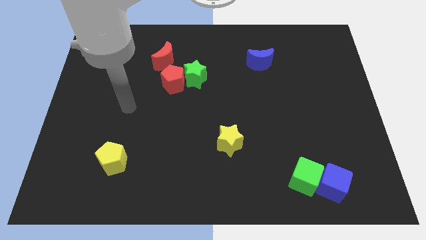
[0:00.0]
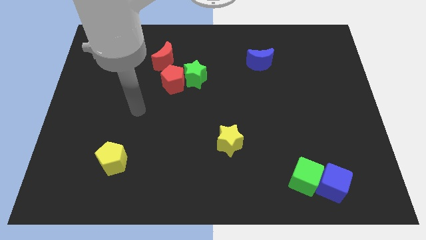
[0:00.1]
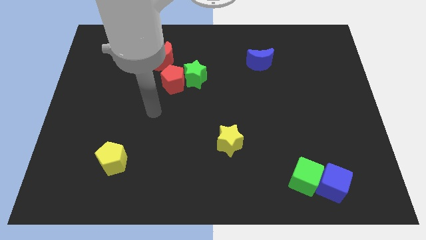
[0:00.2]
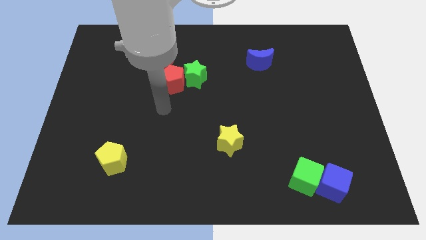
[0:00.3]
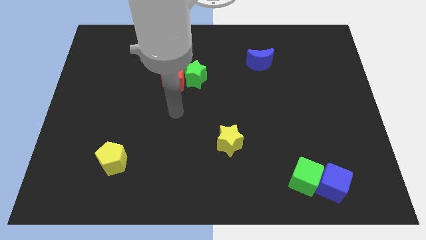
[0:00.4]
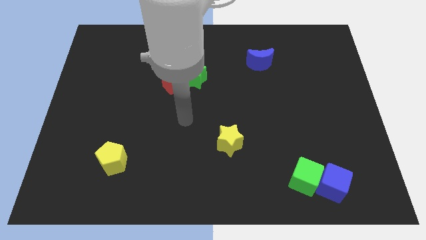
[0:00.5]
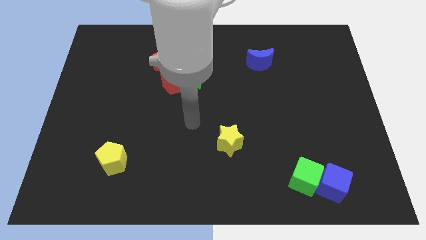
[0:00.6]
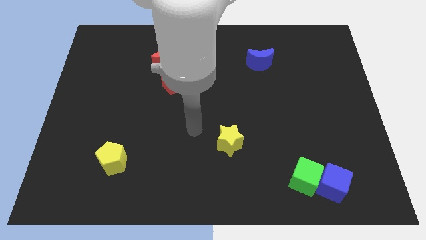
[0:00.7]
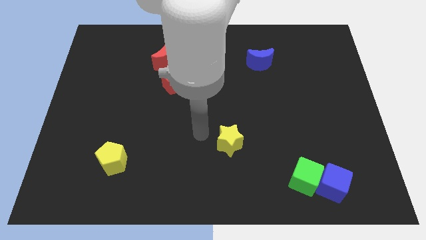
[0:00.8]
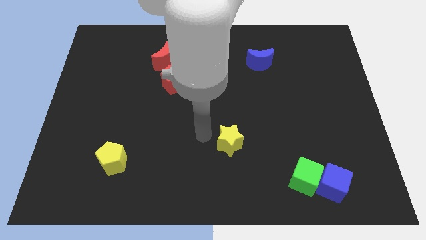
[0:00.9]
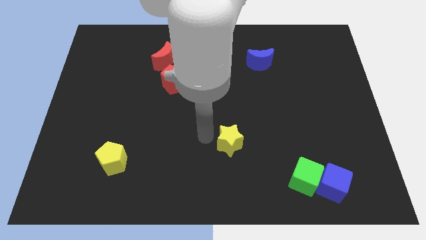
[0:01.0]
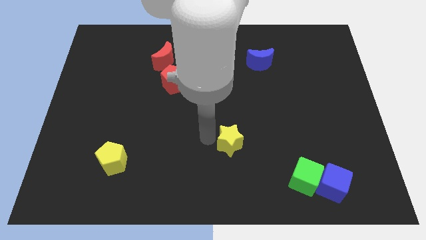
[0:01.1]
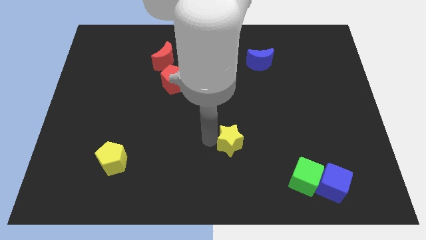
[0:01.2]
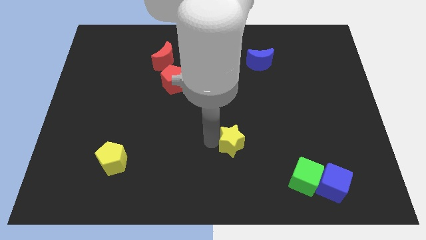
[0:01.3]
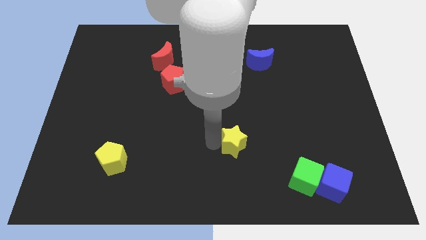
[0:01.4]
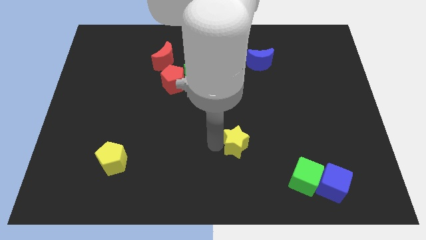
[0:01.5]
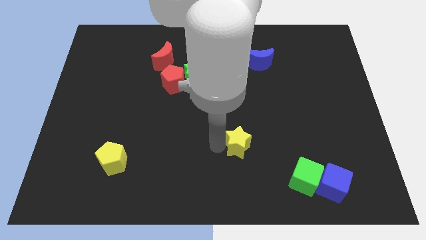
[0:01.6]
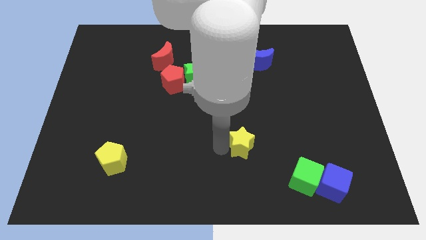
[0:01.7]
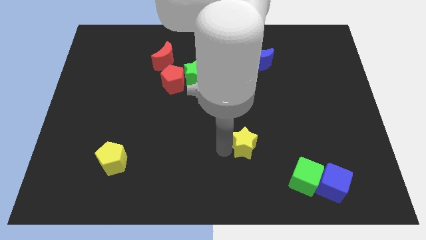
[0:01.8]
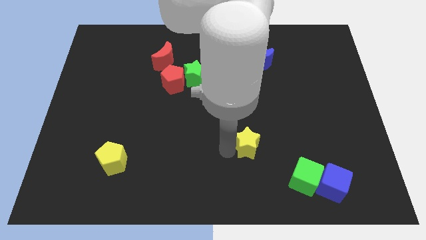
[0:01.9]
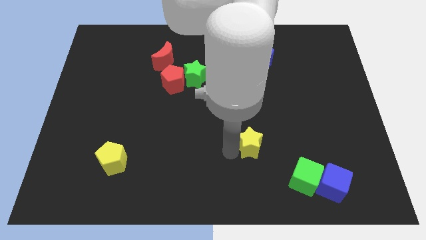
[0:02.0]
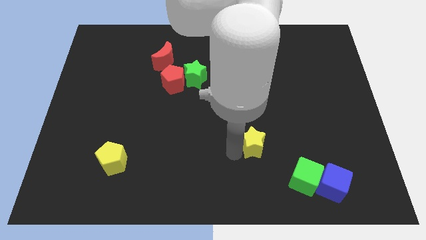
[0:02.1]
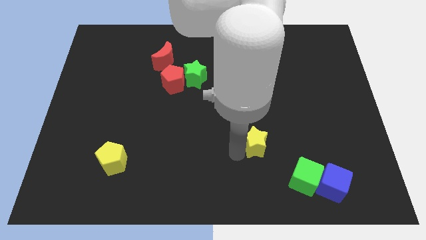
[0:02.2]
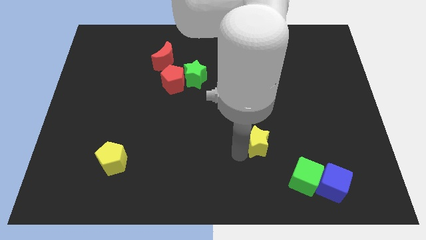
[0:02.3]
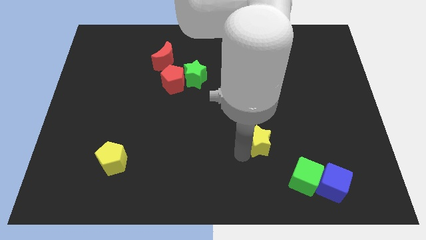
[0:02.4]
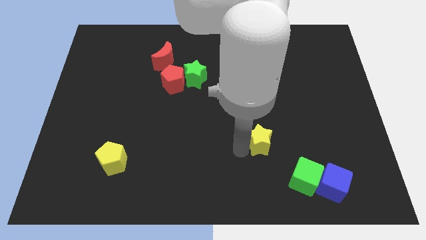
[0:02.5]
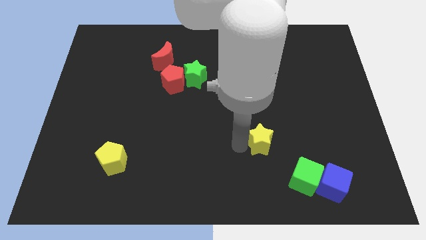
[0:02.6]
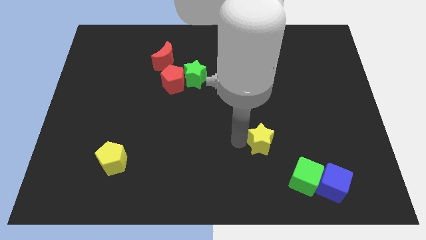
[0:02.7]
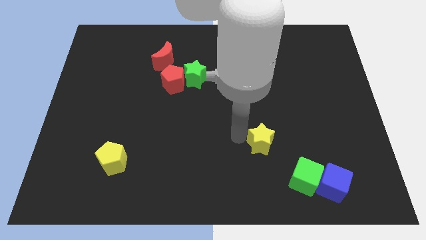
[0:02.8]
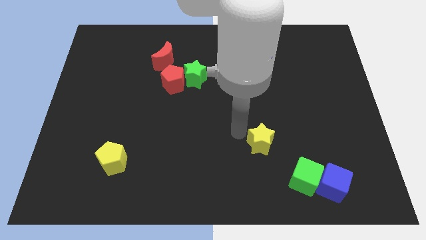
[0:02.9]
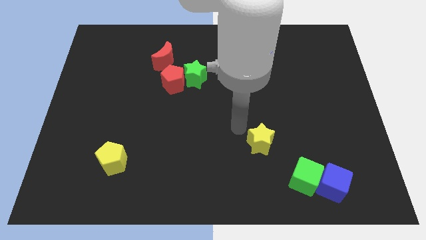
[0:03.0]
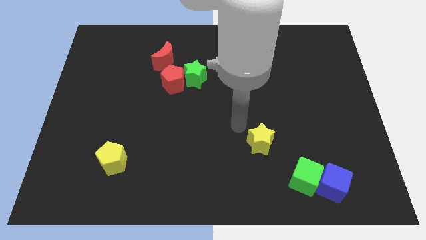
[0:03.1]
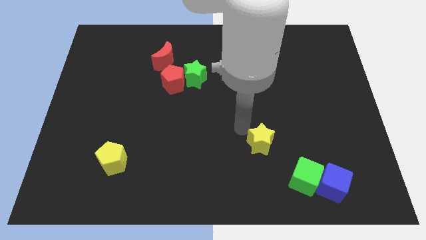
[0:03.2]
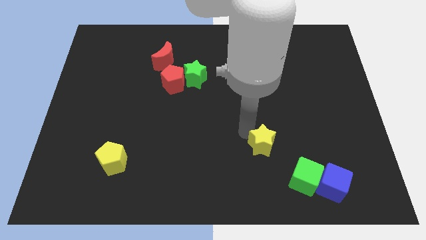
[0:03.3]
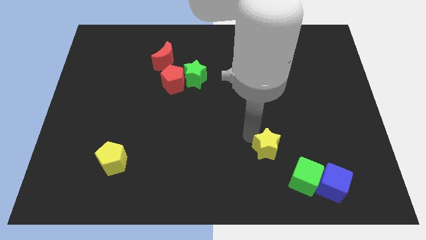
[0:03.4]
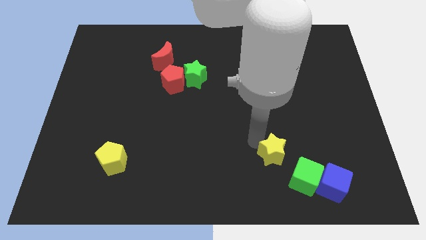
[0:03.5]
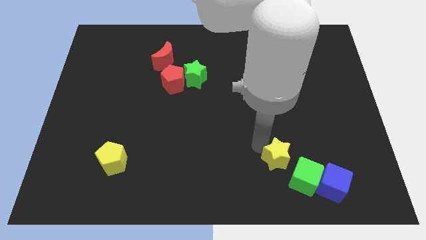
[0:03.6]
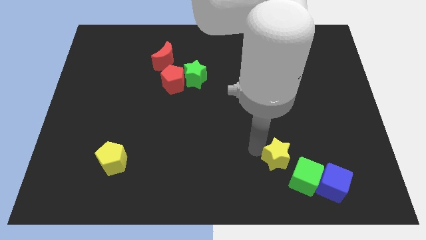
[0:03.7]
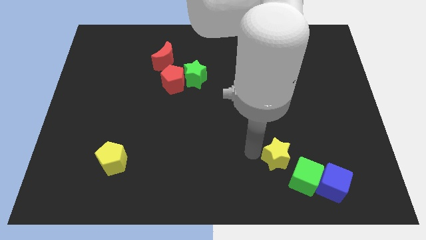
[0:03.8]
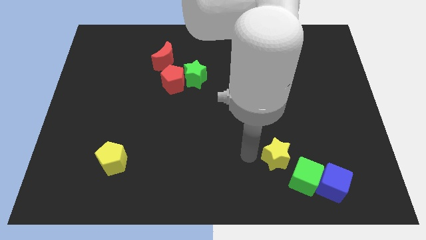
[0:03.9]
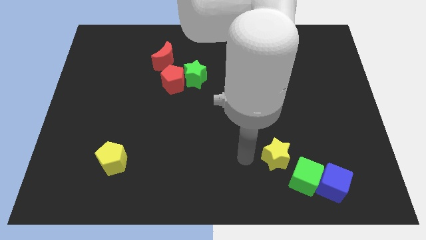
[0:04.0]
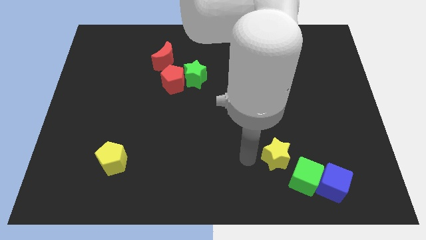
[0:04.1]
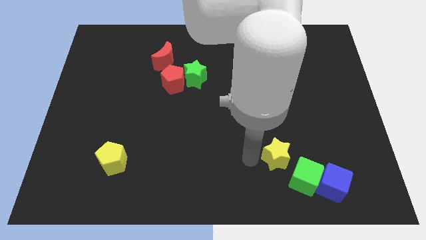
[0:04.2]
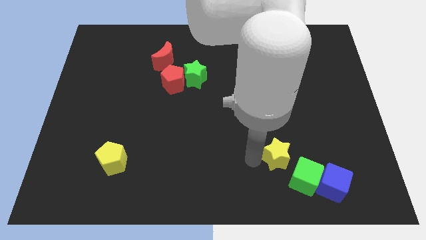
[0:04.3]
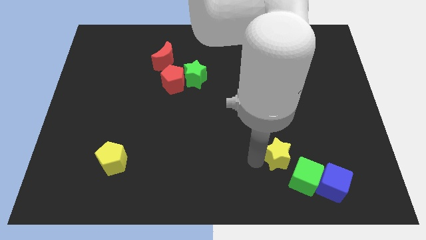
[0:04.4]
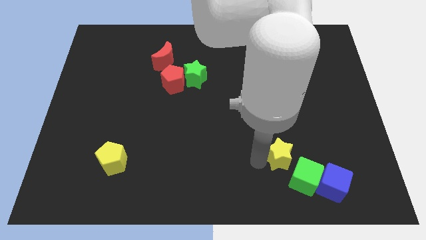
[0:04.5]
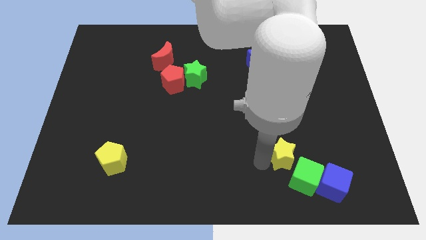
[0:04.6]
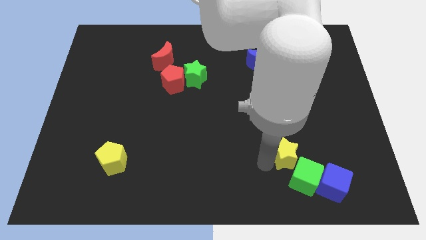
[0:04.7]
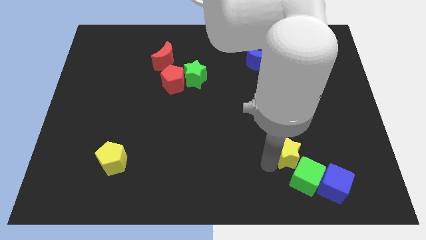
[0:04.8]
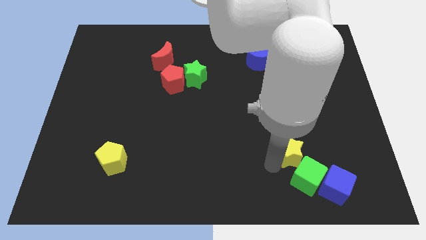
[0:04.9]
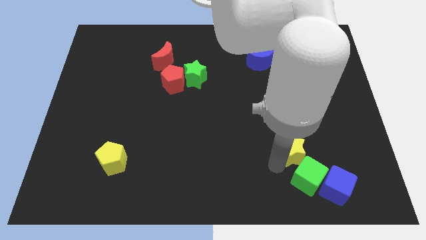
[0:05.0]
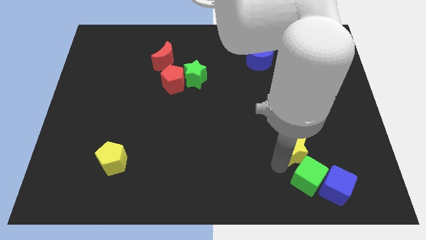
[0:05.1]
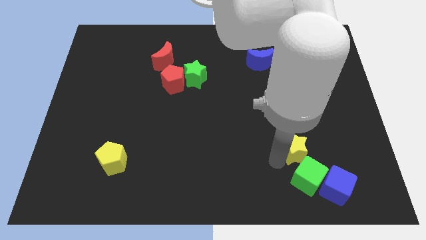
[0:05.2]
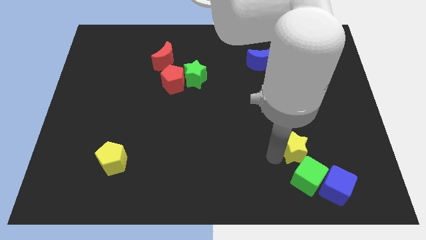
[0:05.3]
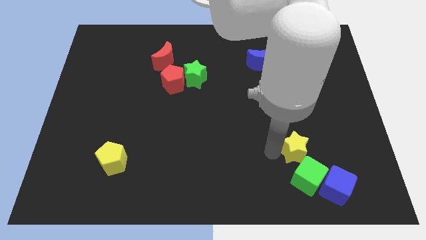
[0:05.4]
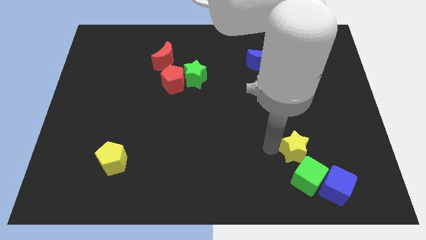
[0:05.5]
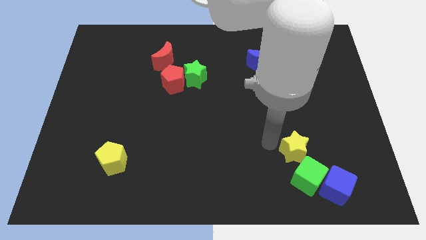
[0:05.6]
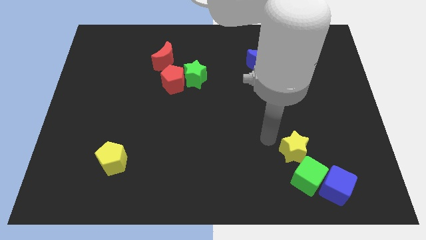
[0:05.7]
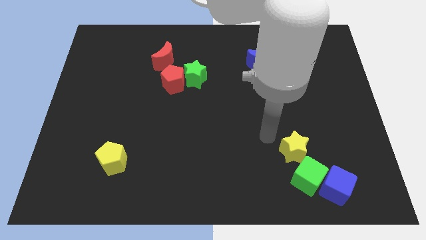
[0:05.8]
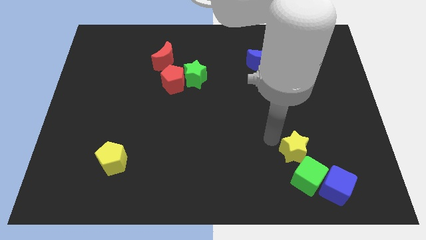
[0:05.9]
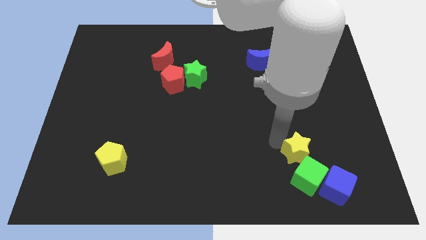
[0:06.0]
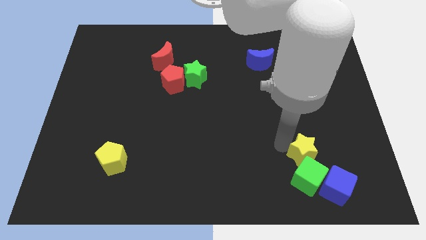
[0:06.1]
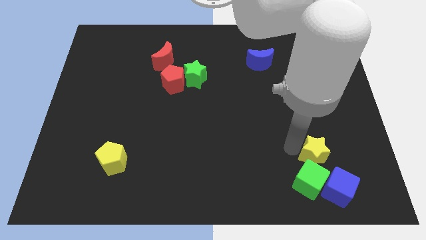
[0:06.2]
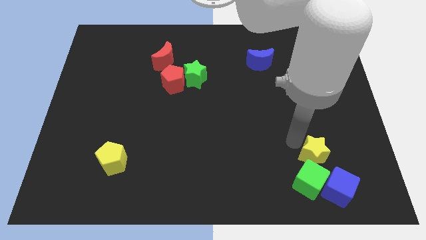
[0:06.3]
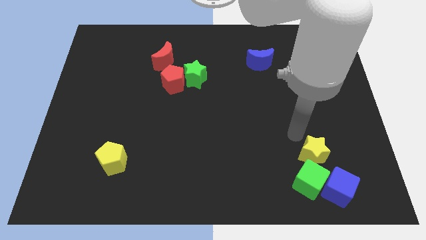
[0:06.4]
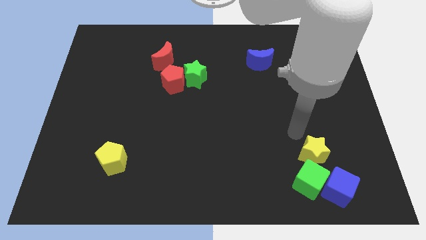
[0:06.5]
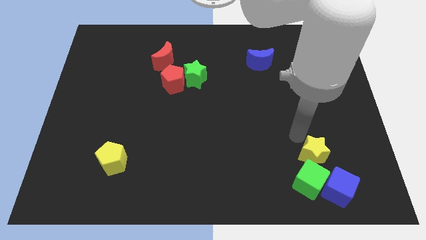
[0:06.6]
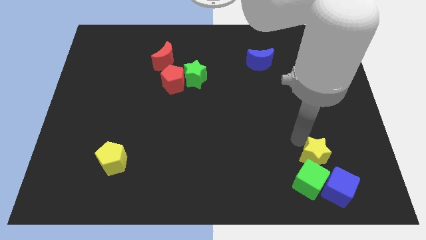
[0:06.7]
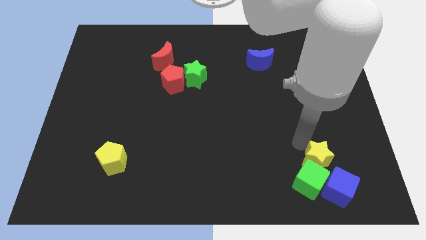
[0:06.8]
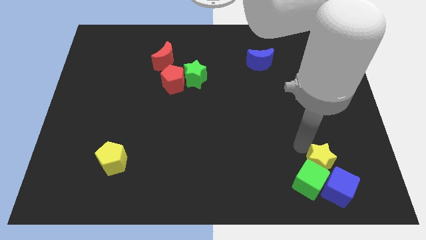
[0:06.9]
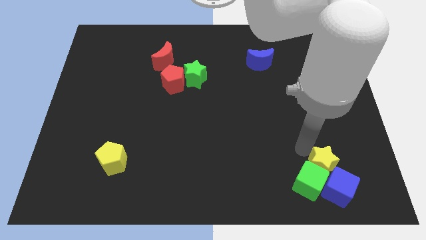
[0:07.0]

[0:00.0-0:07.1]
put the yellow star close to the blue cube

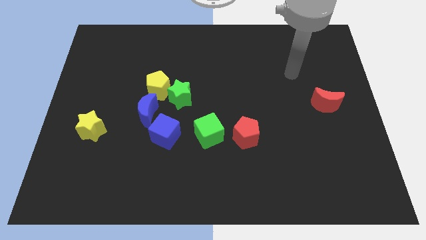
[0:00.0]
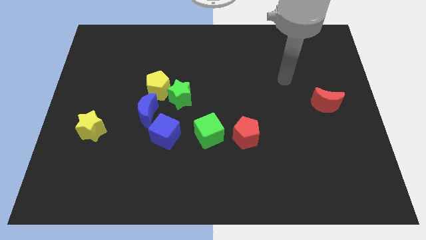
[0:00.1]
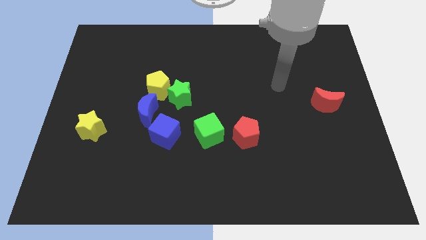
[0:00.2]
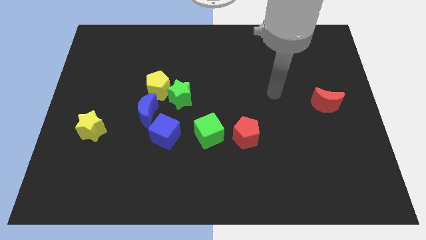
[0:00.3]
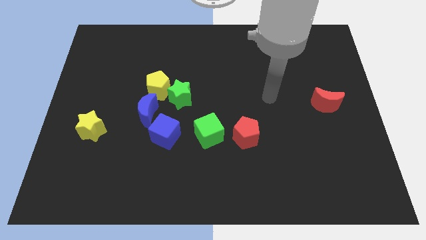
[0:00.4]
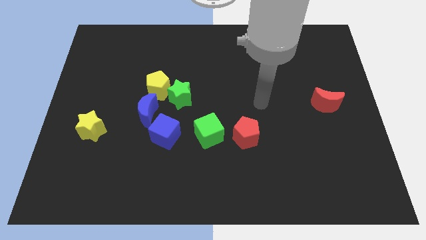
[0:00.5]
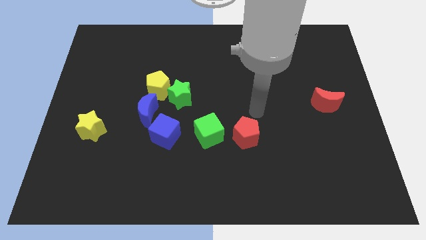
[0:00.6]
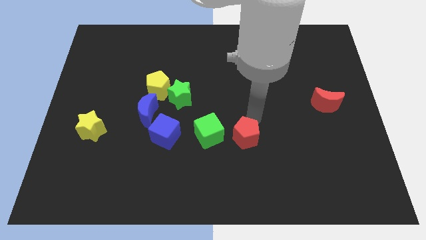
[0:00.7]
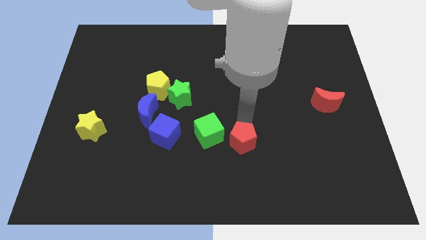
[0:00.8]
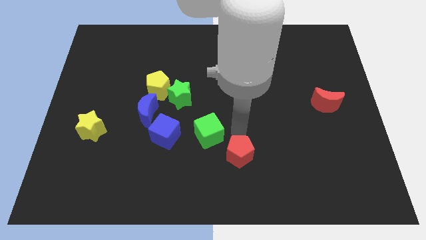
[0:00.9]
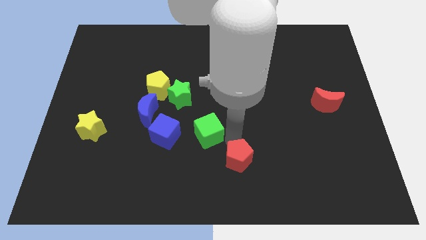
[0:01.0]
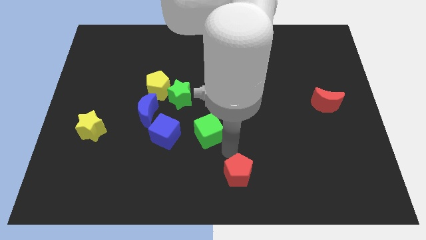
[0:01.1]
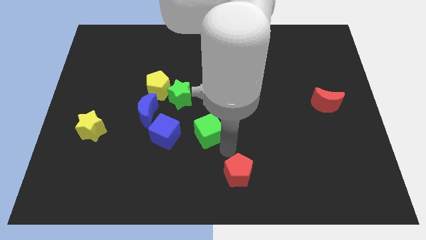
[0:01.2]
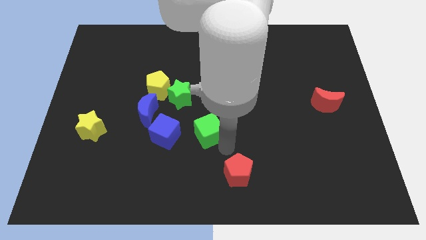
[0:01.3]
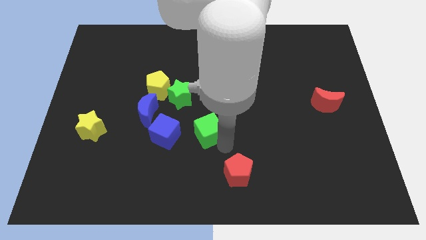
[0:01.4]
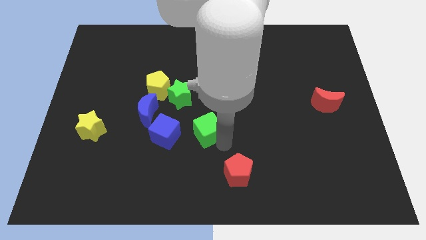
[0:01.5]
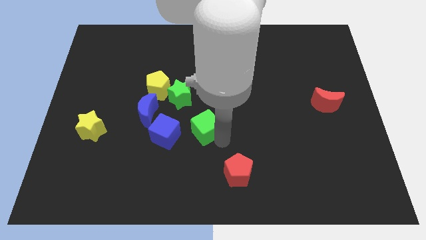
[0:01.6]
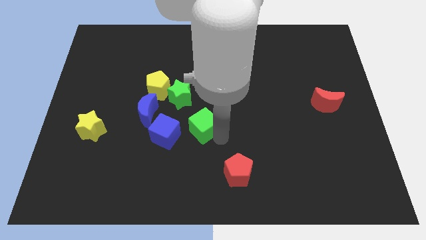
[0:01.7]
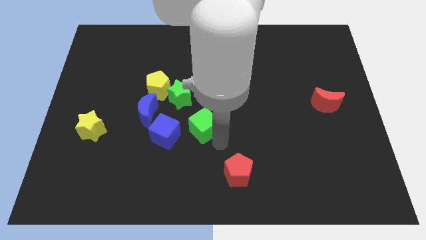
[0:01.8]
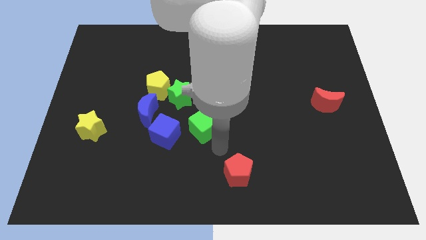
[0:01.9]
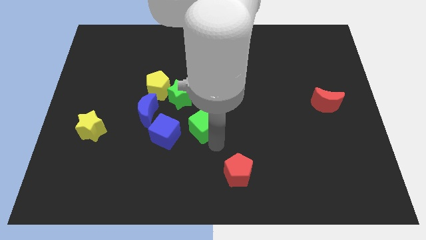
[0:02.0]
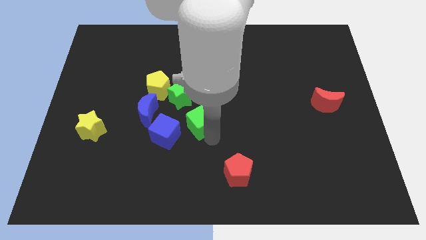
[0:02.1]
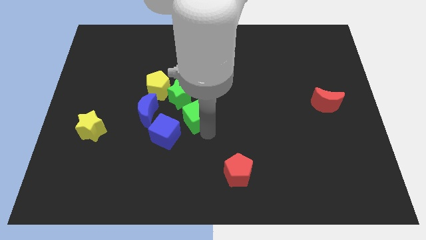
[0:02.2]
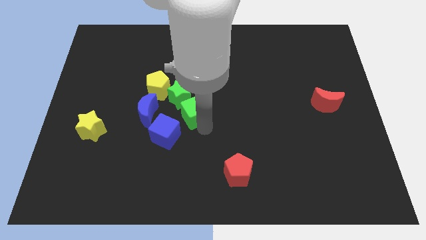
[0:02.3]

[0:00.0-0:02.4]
move the green cube next to the green star
